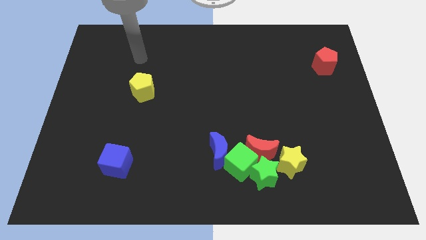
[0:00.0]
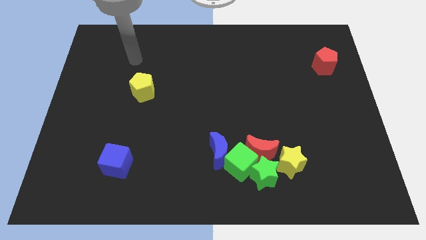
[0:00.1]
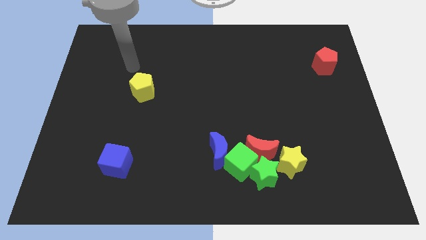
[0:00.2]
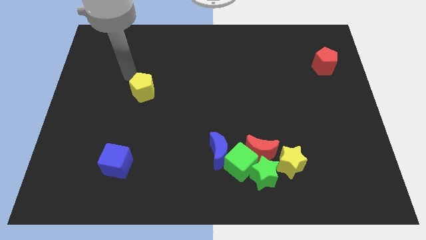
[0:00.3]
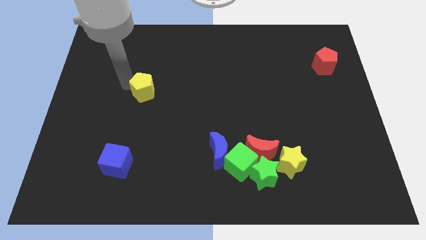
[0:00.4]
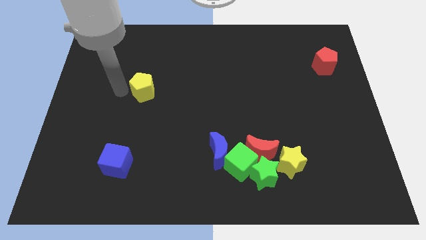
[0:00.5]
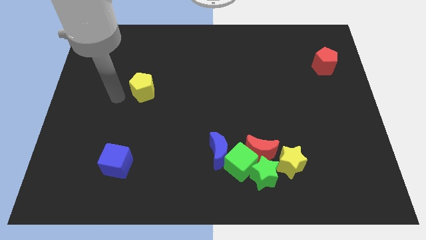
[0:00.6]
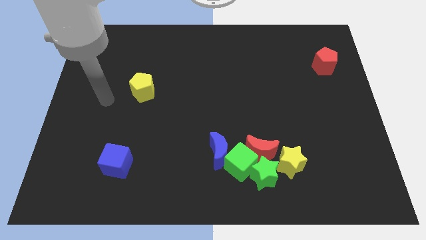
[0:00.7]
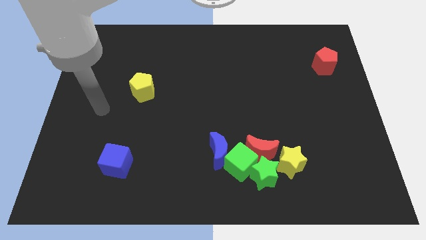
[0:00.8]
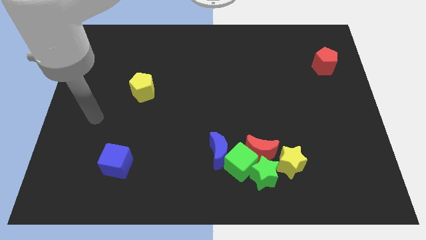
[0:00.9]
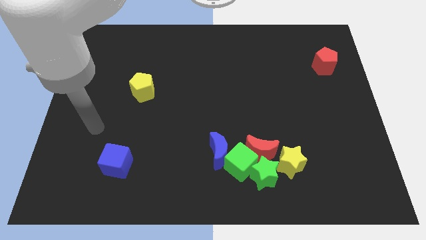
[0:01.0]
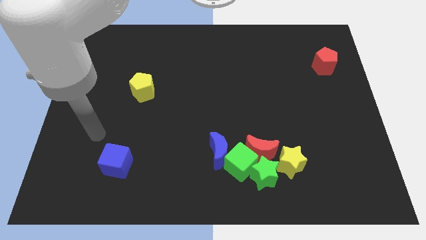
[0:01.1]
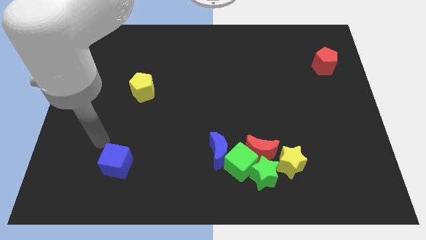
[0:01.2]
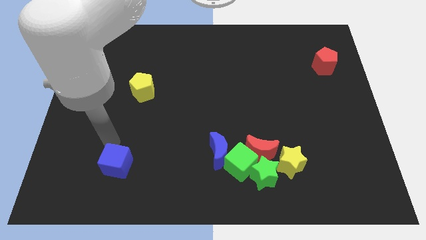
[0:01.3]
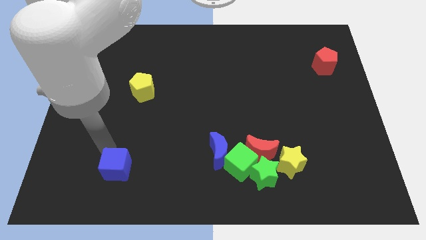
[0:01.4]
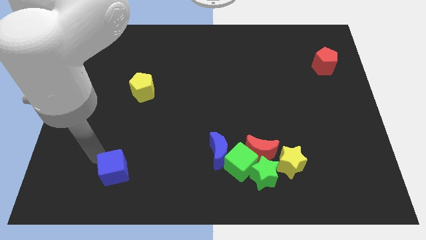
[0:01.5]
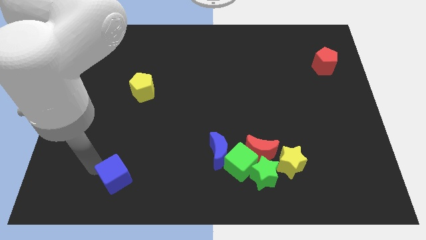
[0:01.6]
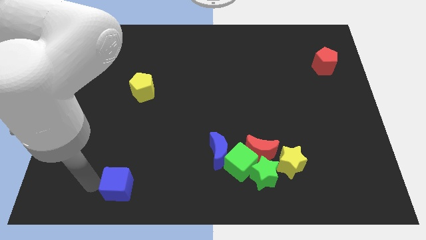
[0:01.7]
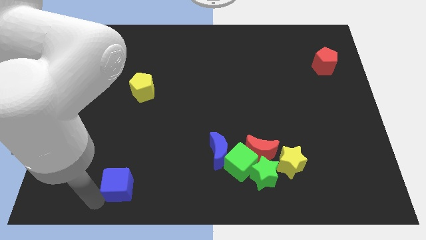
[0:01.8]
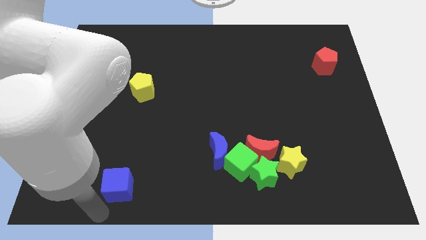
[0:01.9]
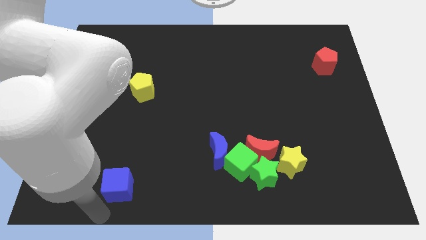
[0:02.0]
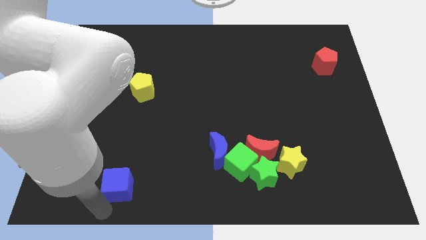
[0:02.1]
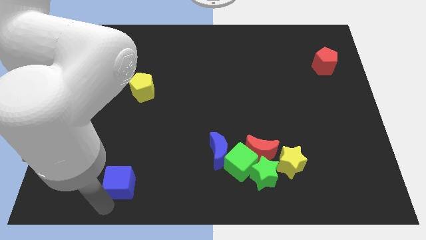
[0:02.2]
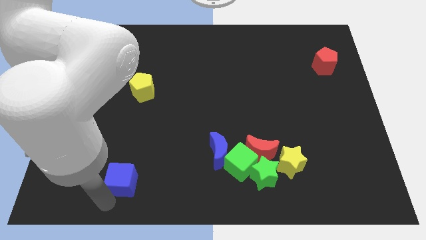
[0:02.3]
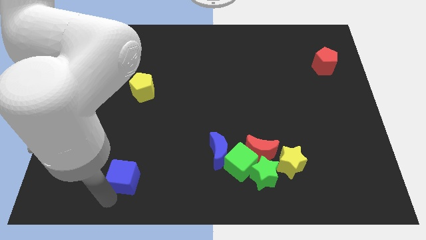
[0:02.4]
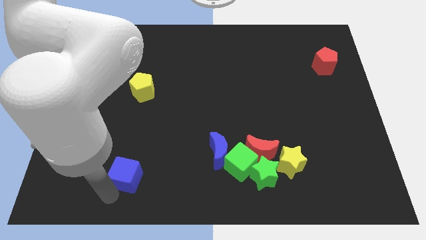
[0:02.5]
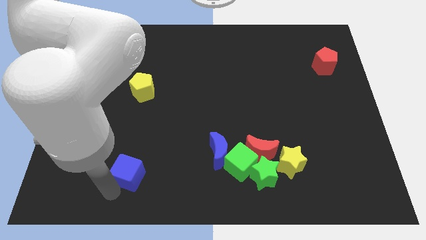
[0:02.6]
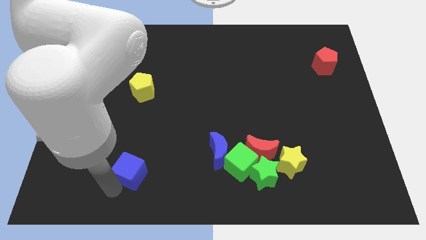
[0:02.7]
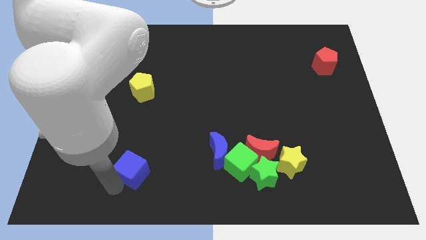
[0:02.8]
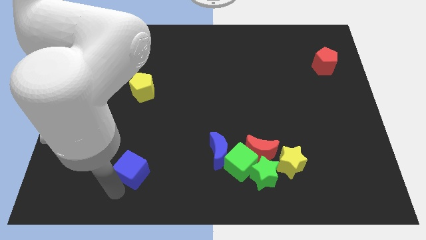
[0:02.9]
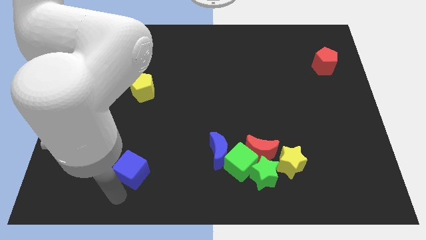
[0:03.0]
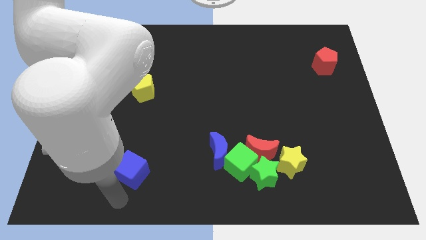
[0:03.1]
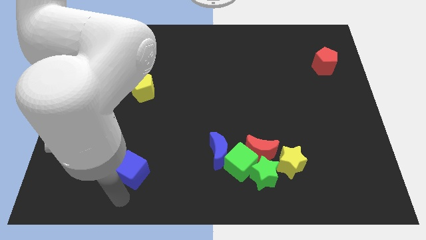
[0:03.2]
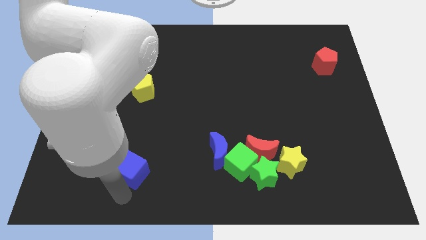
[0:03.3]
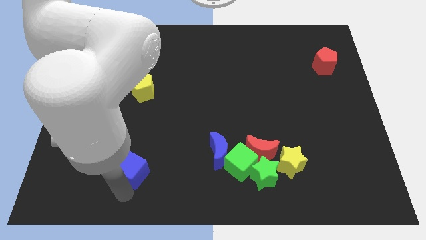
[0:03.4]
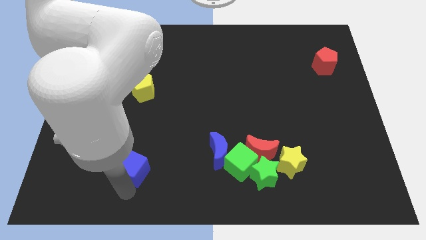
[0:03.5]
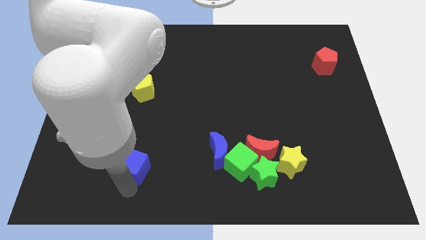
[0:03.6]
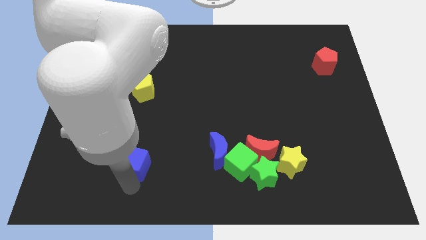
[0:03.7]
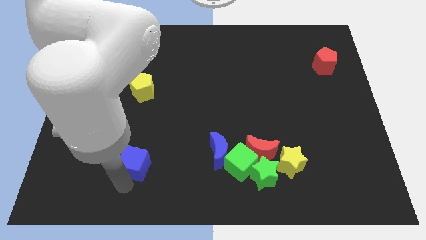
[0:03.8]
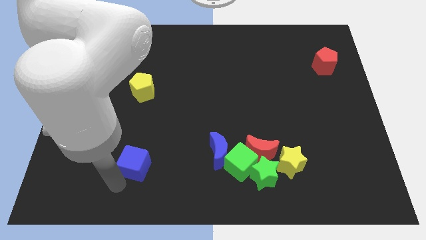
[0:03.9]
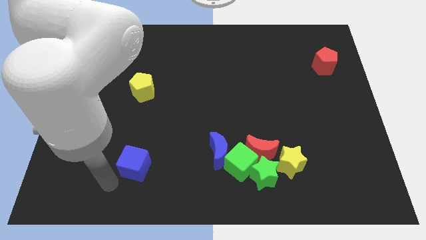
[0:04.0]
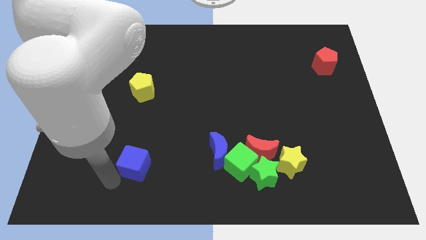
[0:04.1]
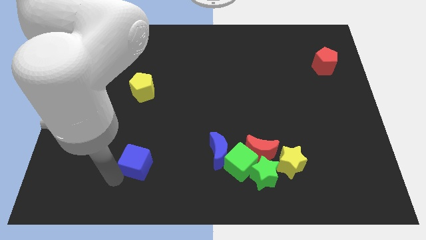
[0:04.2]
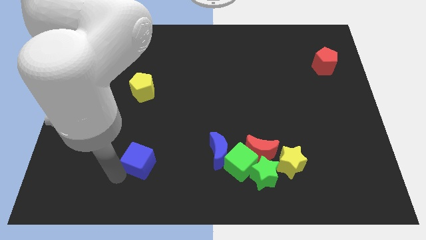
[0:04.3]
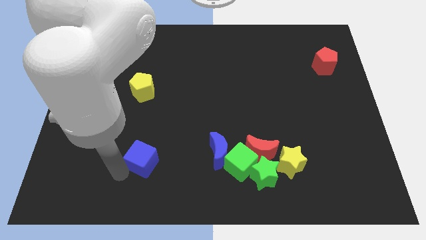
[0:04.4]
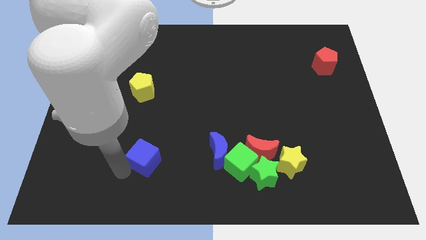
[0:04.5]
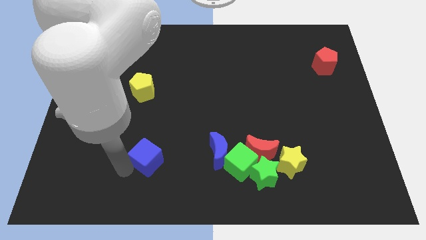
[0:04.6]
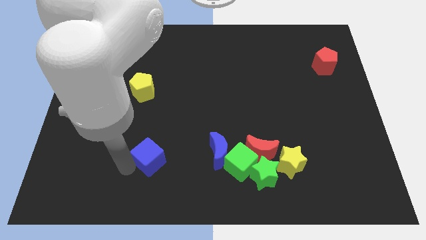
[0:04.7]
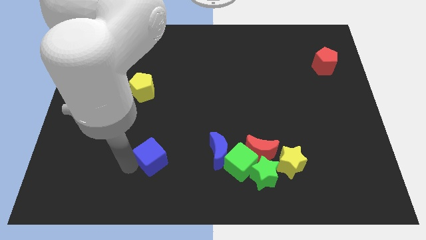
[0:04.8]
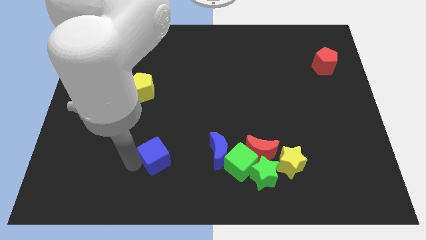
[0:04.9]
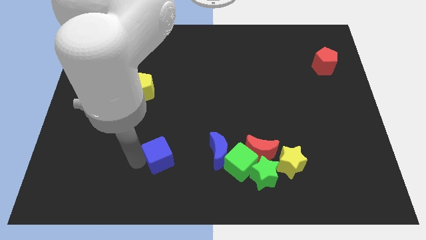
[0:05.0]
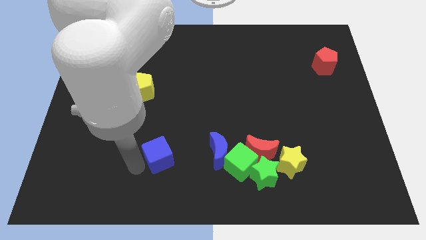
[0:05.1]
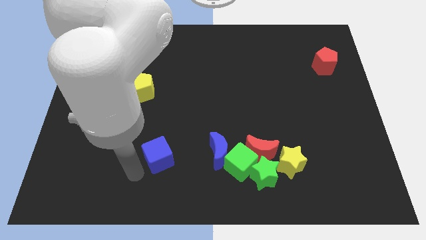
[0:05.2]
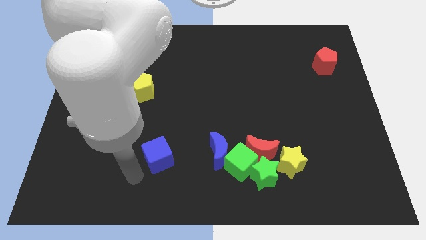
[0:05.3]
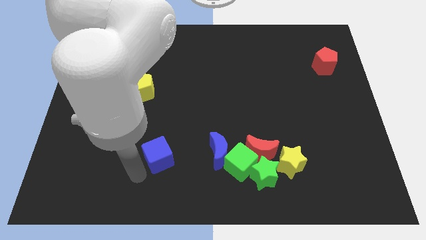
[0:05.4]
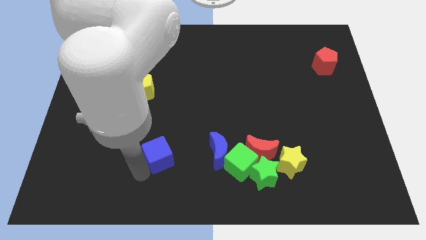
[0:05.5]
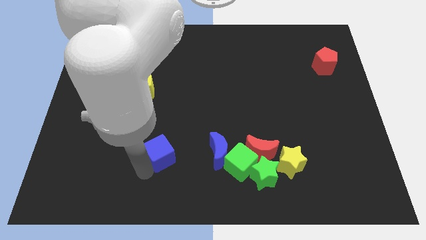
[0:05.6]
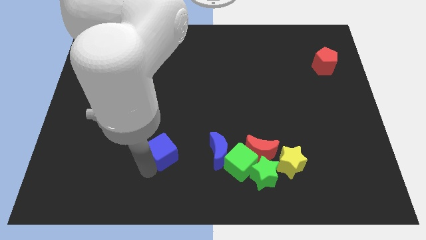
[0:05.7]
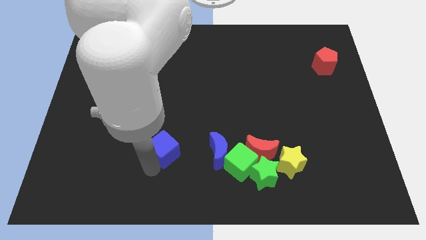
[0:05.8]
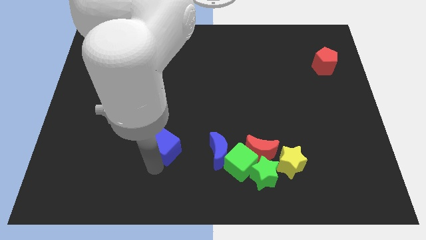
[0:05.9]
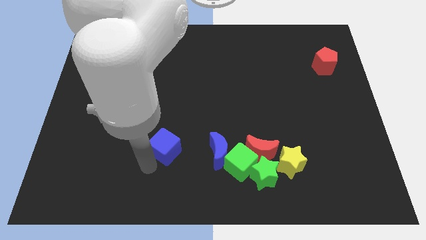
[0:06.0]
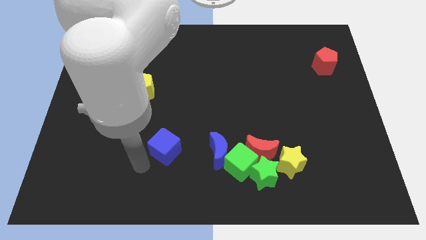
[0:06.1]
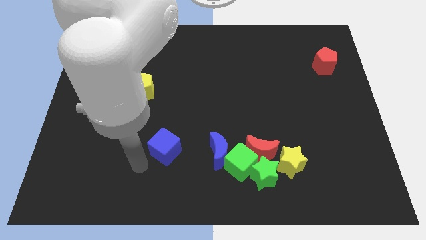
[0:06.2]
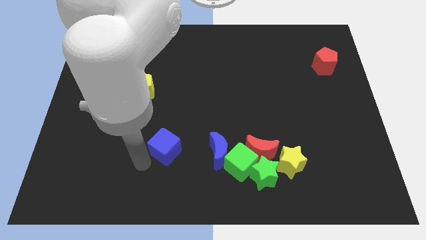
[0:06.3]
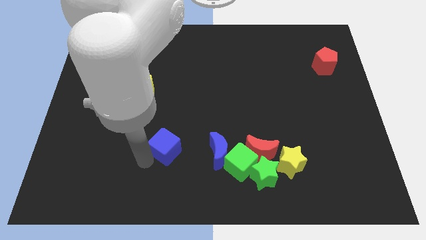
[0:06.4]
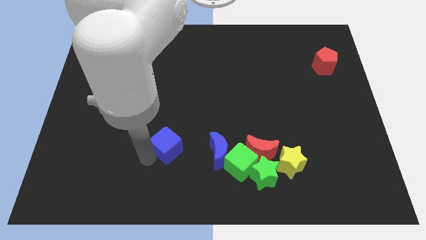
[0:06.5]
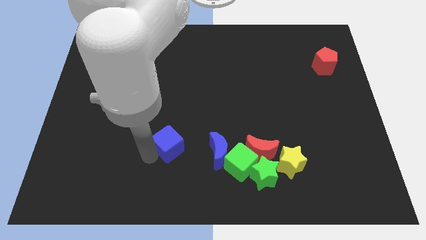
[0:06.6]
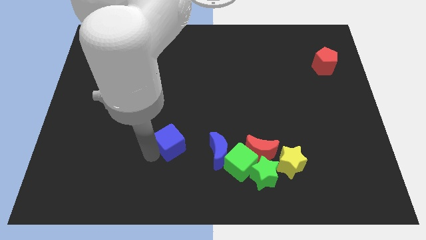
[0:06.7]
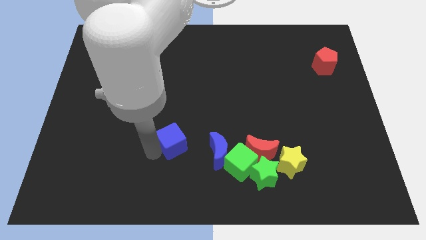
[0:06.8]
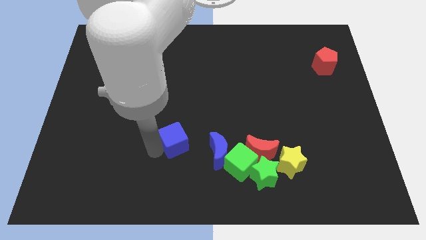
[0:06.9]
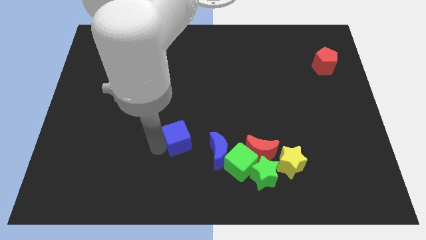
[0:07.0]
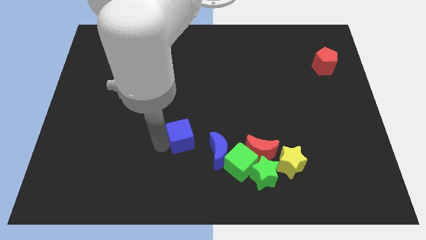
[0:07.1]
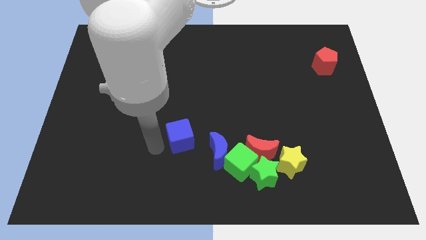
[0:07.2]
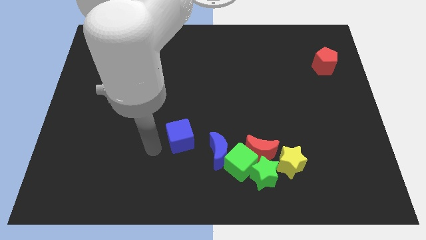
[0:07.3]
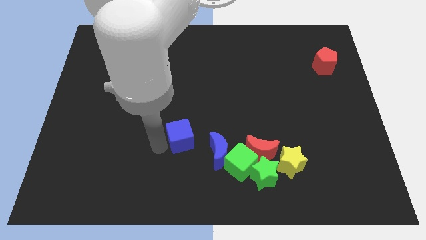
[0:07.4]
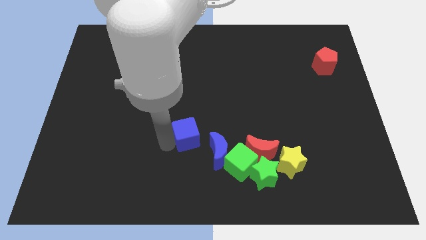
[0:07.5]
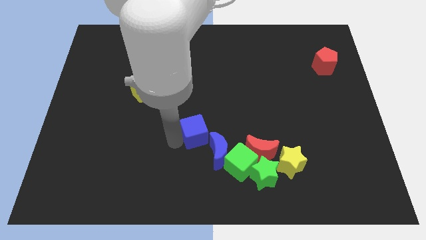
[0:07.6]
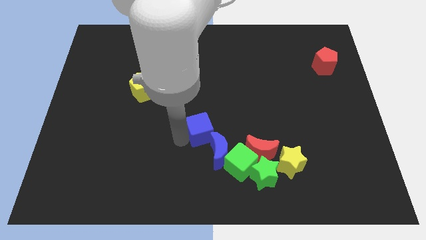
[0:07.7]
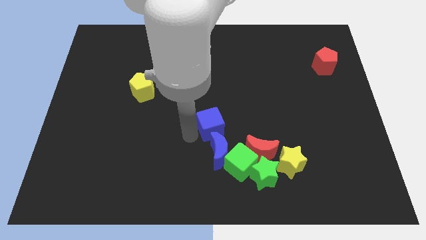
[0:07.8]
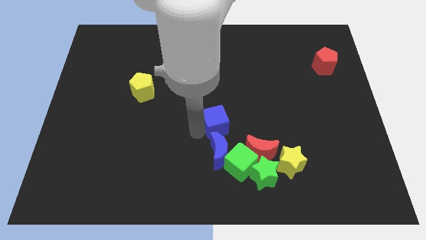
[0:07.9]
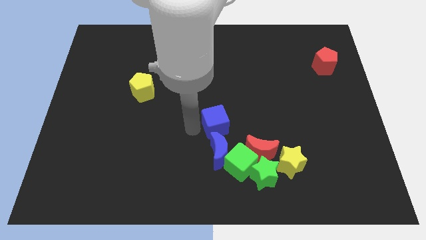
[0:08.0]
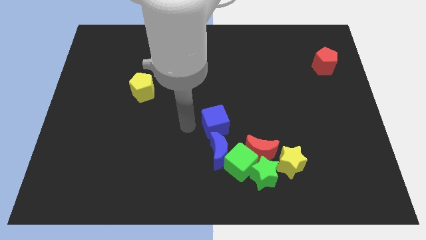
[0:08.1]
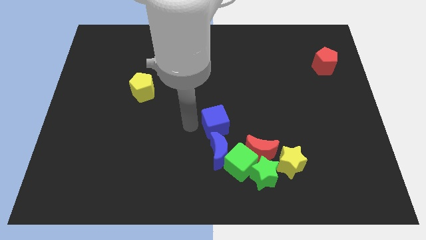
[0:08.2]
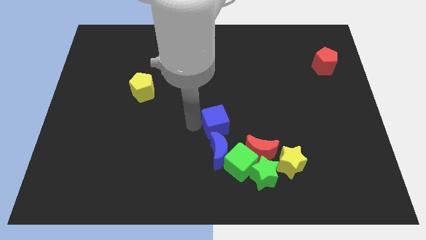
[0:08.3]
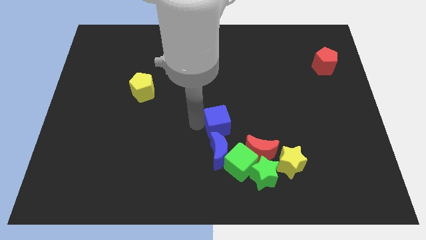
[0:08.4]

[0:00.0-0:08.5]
put the blue cube to the top side of the green cube
